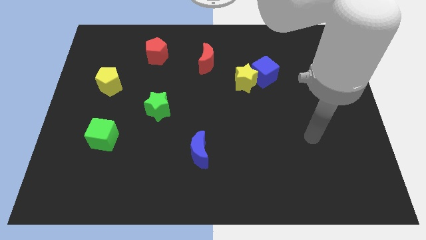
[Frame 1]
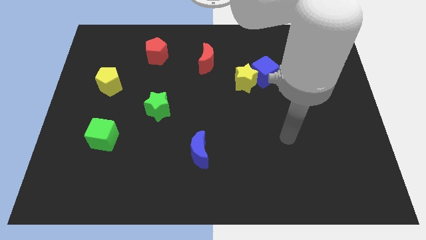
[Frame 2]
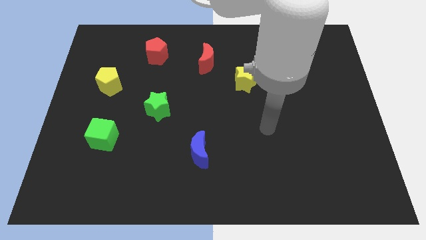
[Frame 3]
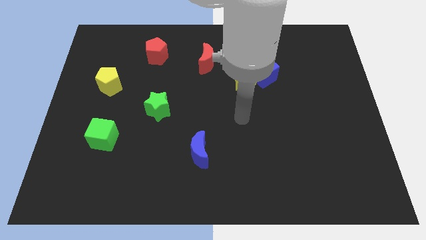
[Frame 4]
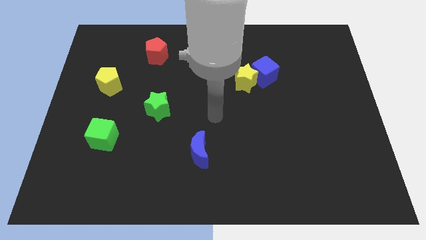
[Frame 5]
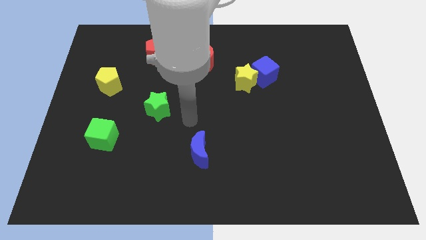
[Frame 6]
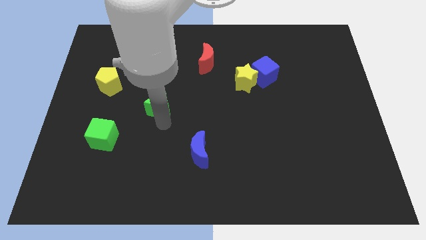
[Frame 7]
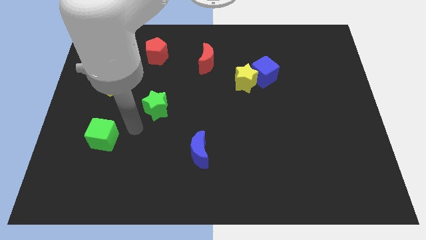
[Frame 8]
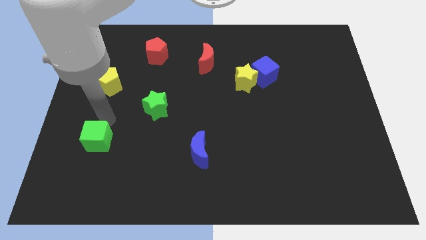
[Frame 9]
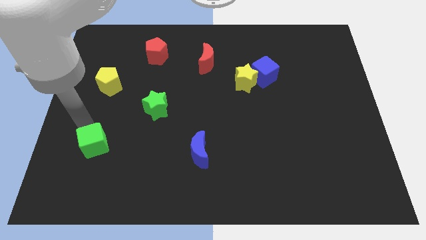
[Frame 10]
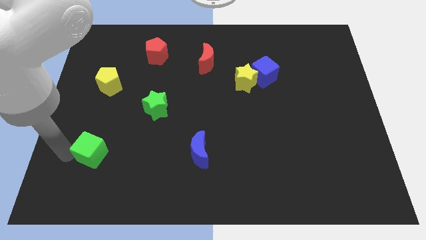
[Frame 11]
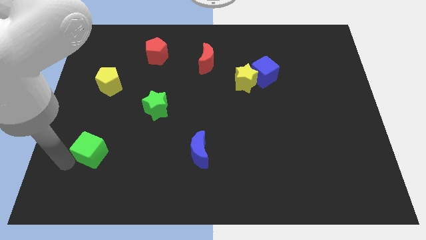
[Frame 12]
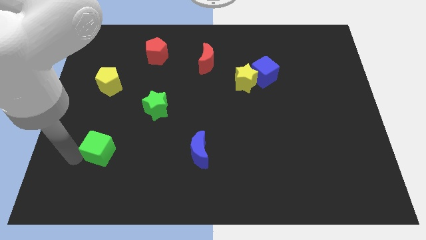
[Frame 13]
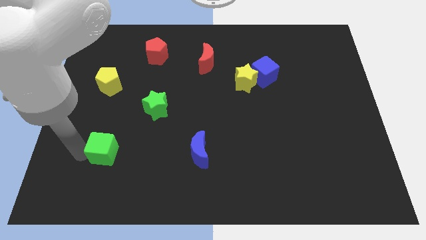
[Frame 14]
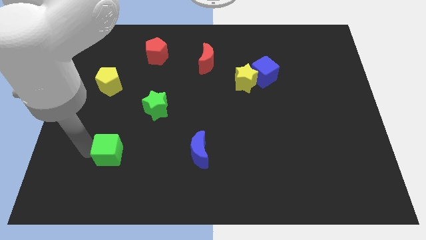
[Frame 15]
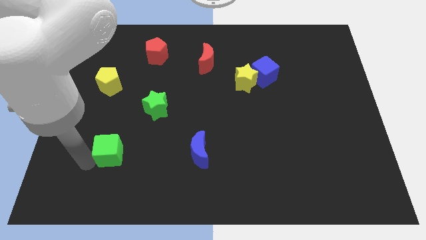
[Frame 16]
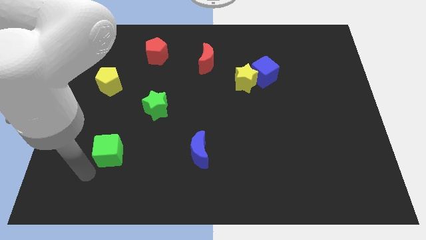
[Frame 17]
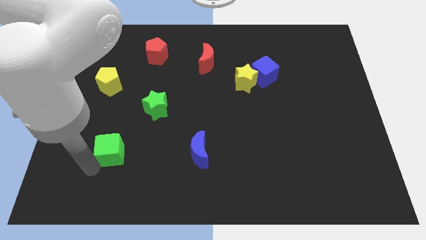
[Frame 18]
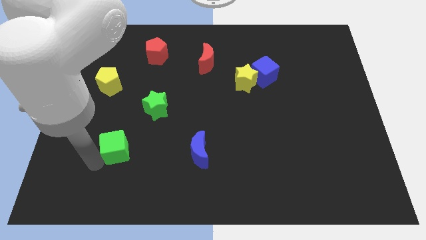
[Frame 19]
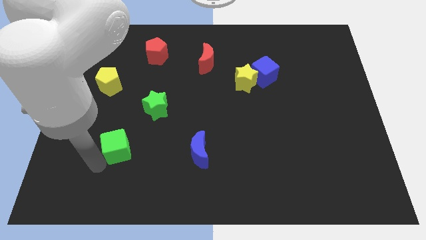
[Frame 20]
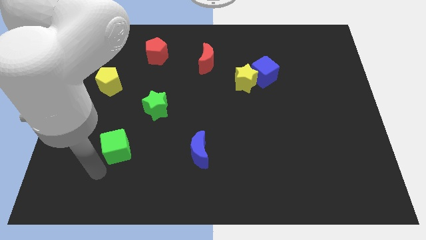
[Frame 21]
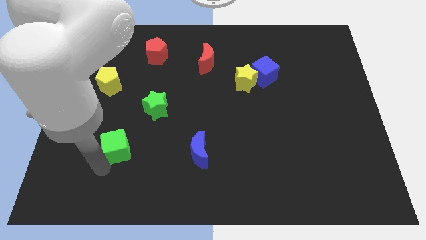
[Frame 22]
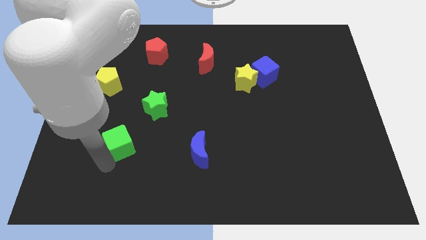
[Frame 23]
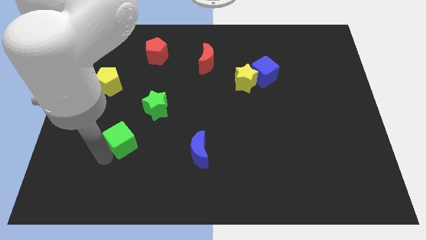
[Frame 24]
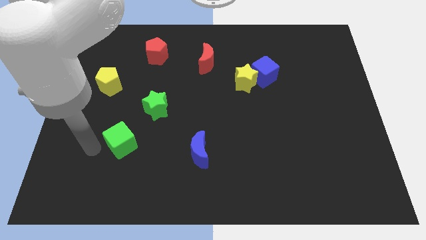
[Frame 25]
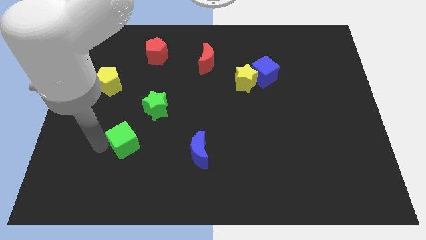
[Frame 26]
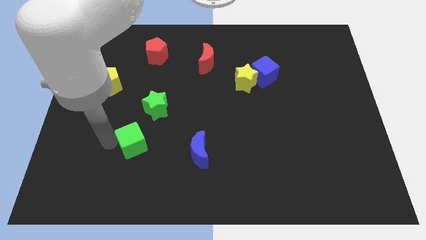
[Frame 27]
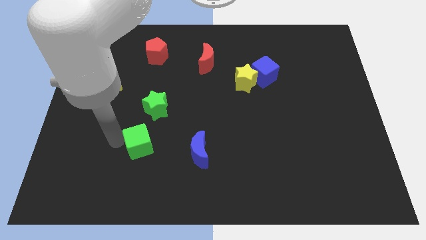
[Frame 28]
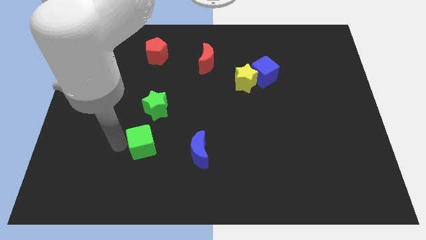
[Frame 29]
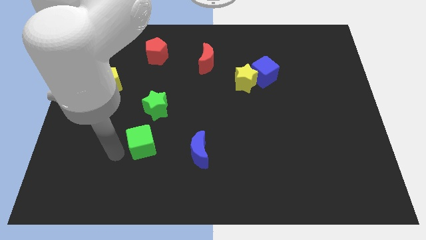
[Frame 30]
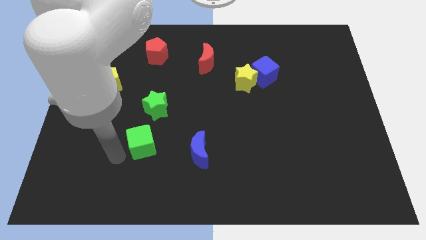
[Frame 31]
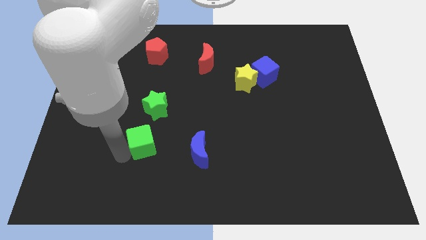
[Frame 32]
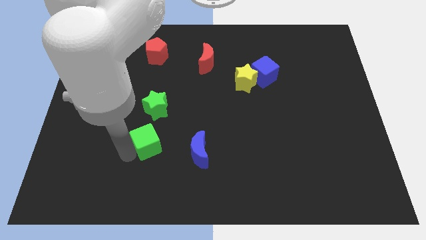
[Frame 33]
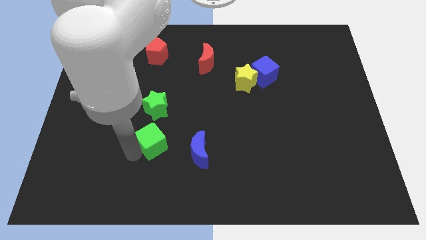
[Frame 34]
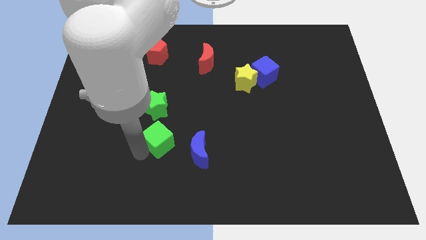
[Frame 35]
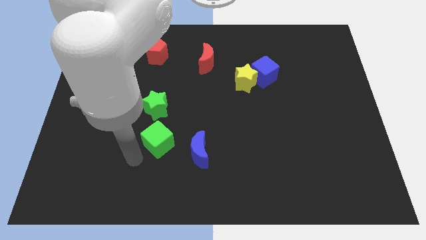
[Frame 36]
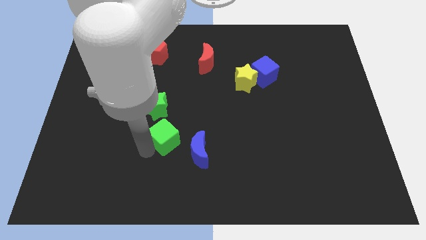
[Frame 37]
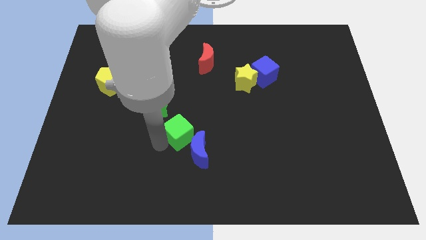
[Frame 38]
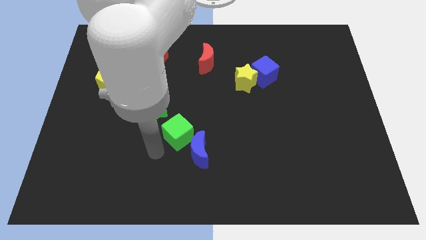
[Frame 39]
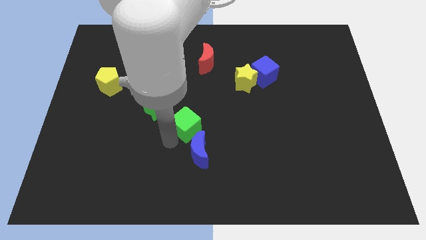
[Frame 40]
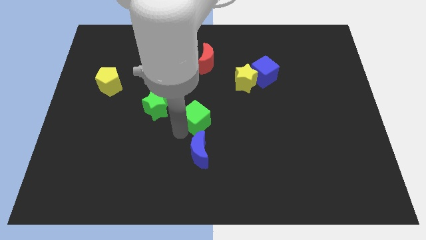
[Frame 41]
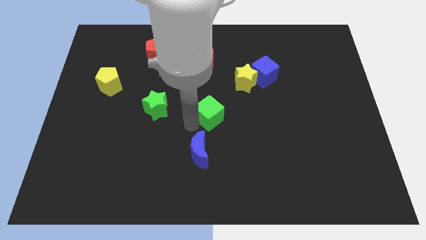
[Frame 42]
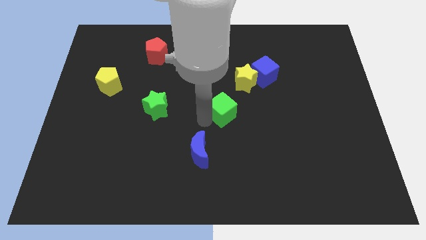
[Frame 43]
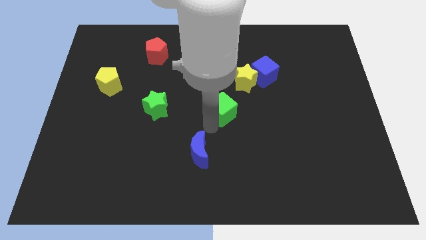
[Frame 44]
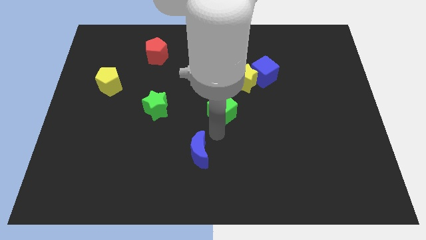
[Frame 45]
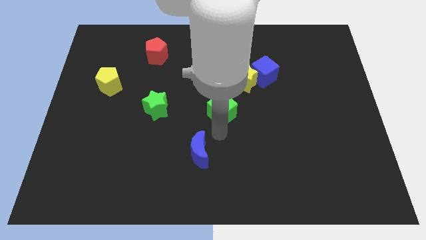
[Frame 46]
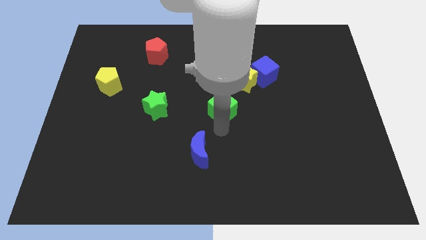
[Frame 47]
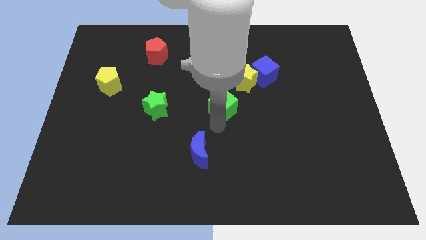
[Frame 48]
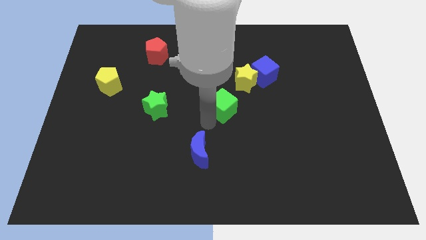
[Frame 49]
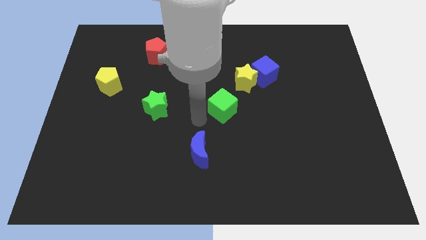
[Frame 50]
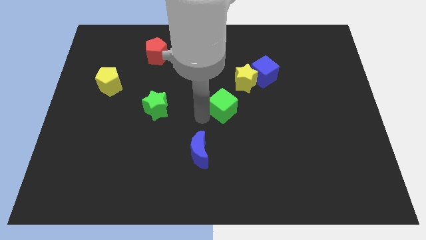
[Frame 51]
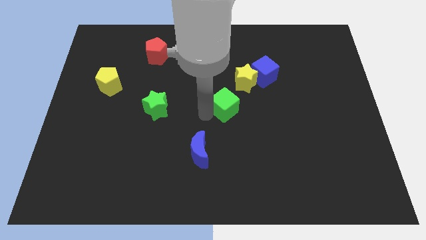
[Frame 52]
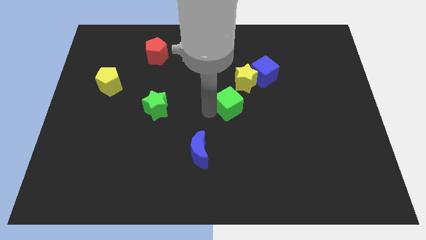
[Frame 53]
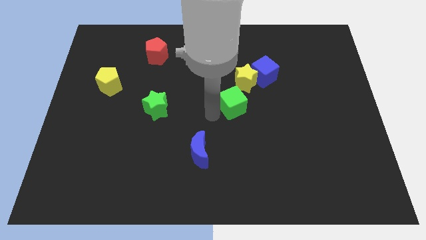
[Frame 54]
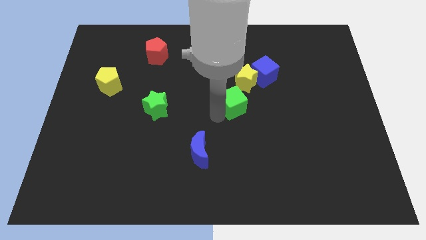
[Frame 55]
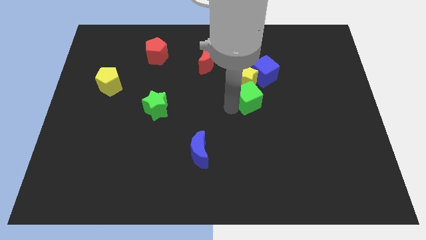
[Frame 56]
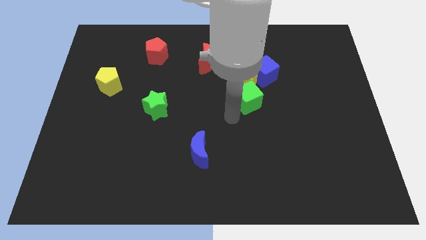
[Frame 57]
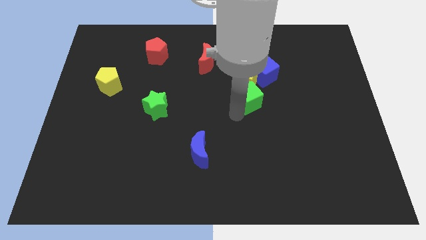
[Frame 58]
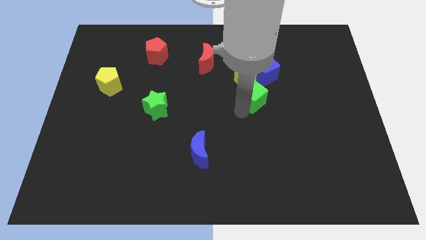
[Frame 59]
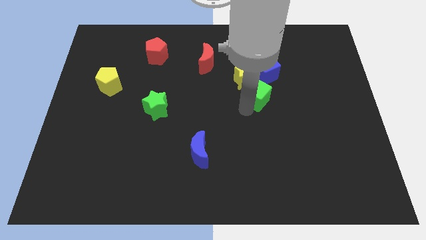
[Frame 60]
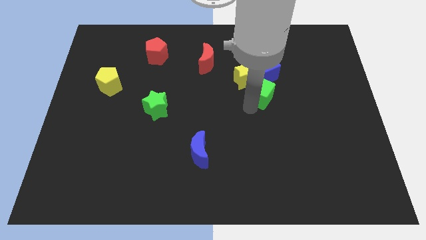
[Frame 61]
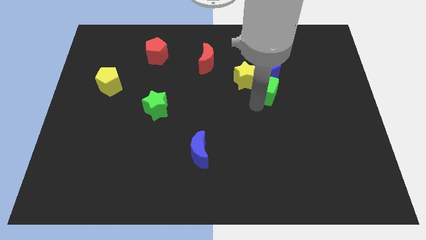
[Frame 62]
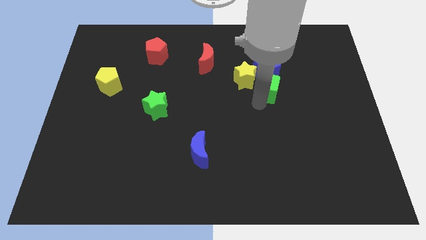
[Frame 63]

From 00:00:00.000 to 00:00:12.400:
push the green cube next to the blue cube

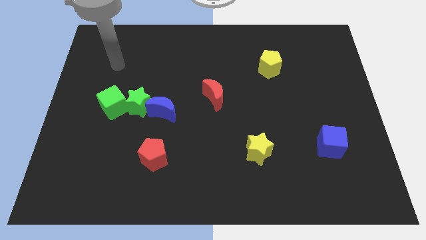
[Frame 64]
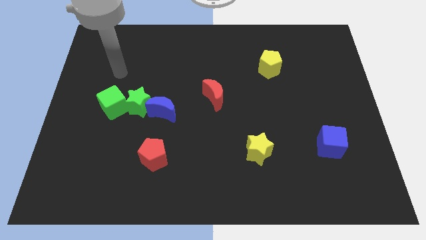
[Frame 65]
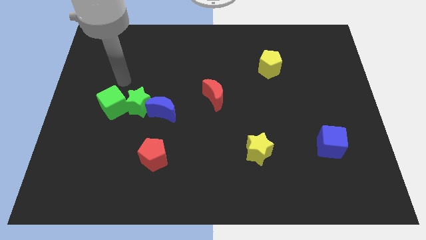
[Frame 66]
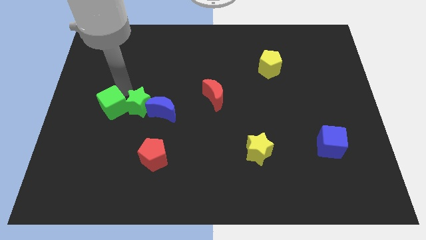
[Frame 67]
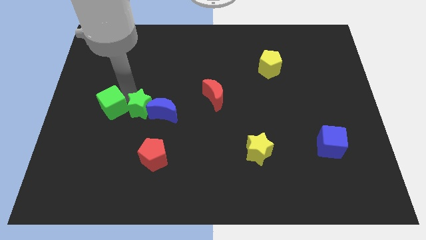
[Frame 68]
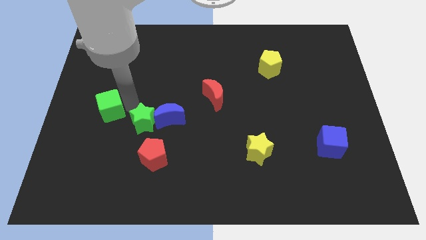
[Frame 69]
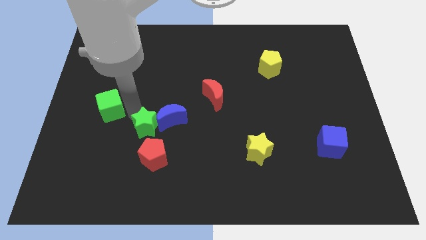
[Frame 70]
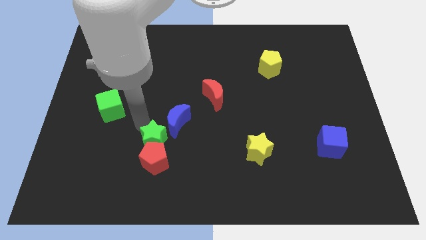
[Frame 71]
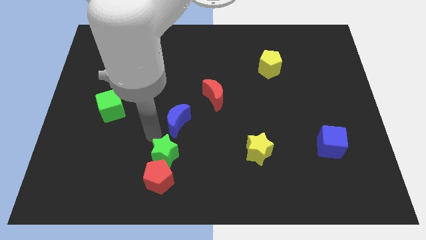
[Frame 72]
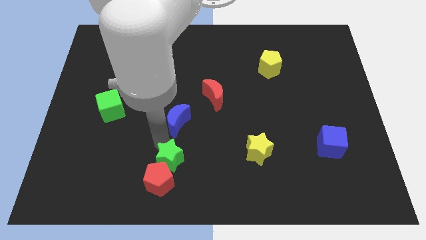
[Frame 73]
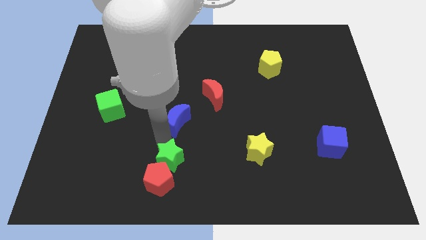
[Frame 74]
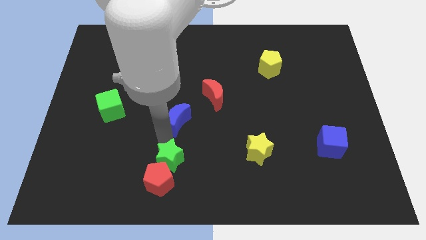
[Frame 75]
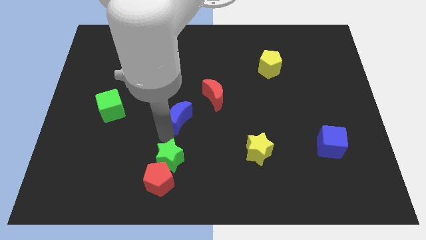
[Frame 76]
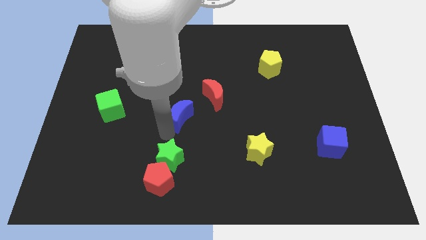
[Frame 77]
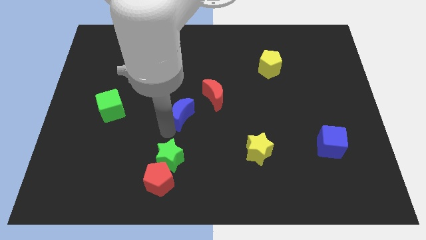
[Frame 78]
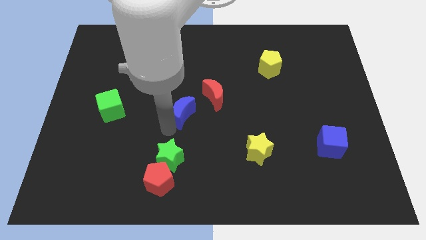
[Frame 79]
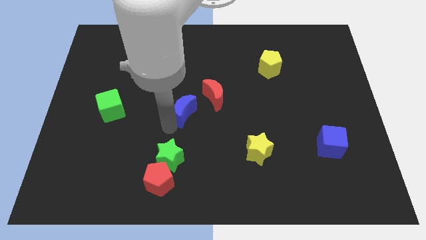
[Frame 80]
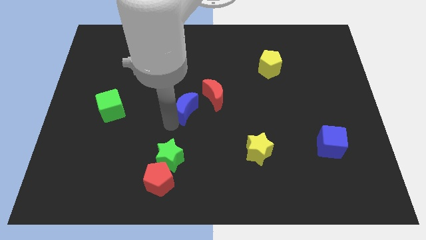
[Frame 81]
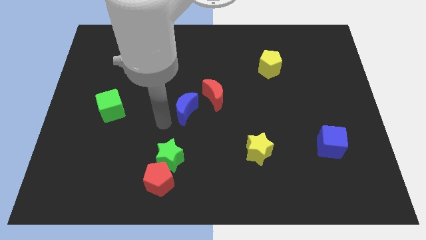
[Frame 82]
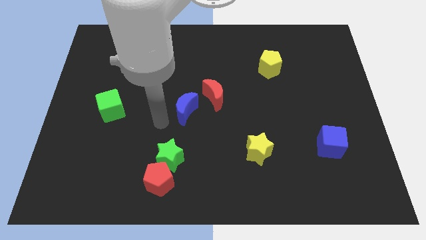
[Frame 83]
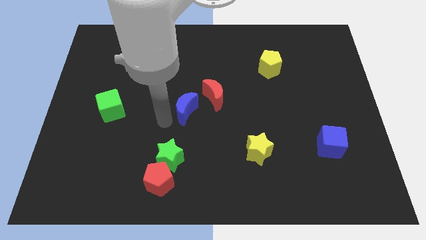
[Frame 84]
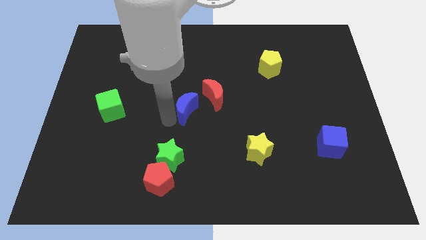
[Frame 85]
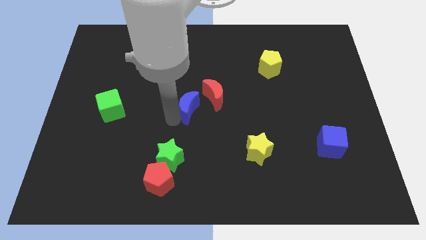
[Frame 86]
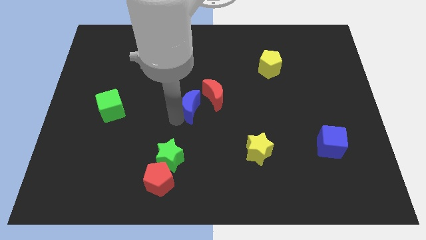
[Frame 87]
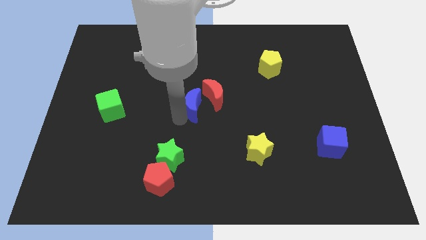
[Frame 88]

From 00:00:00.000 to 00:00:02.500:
push the blue moon close to the red moon
